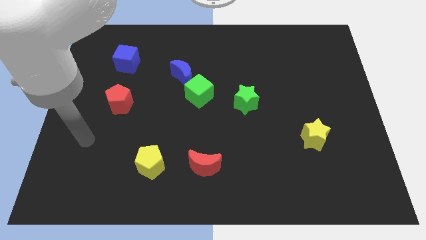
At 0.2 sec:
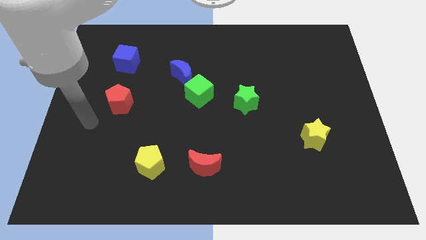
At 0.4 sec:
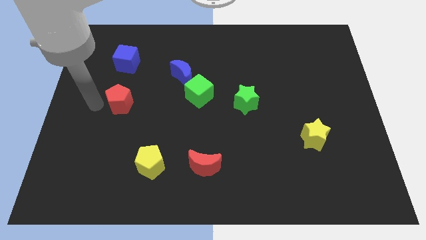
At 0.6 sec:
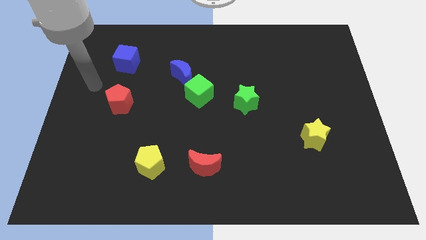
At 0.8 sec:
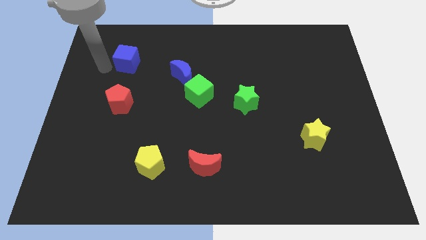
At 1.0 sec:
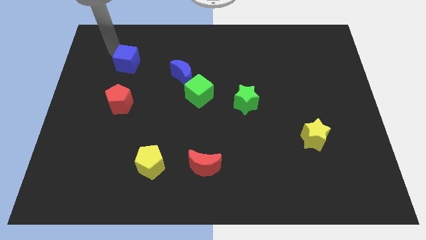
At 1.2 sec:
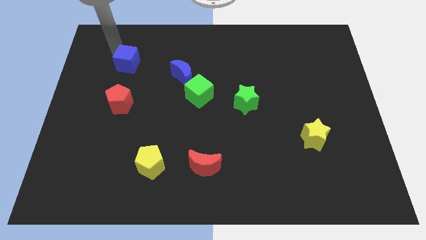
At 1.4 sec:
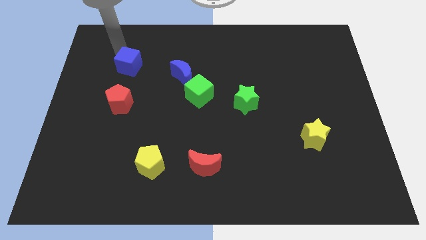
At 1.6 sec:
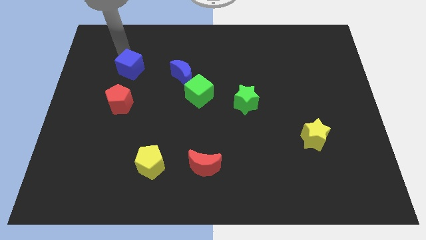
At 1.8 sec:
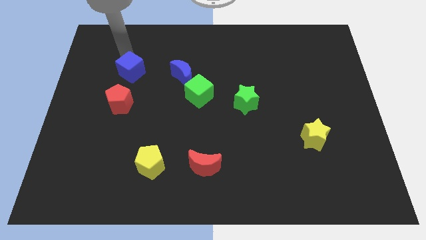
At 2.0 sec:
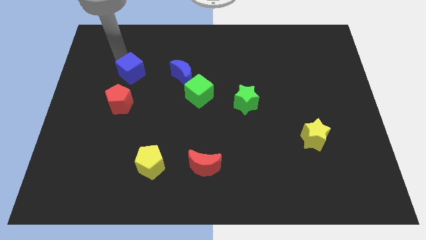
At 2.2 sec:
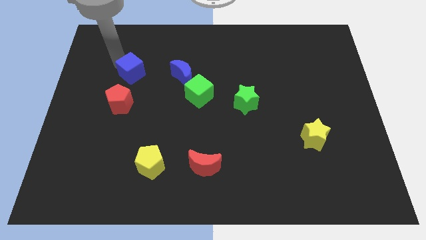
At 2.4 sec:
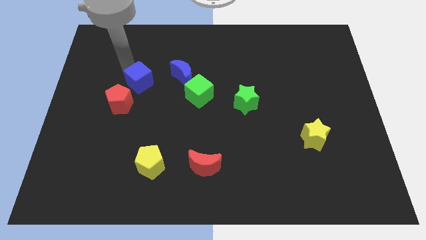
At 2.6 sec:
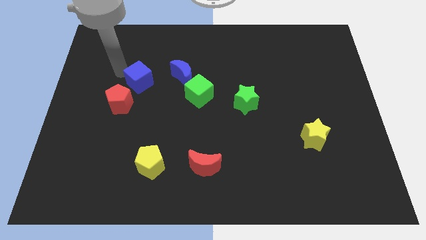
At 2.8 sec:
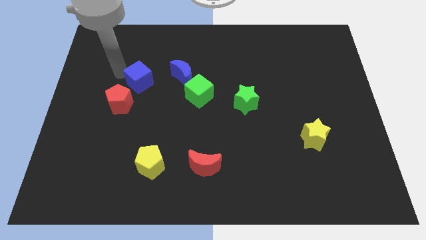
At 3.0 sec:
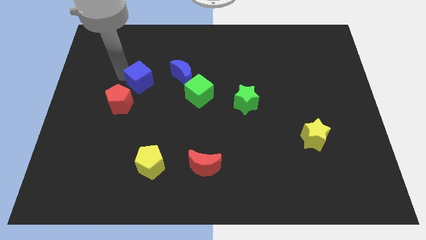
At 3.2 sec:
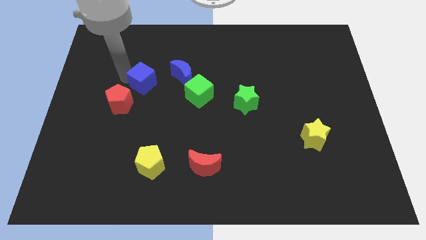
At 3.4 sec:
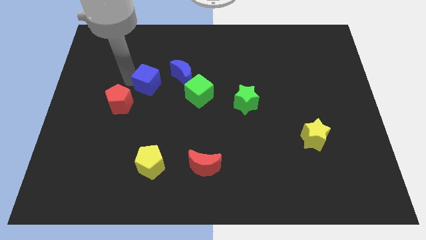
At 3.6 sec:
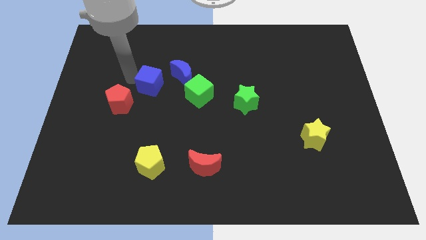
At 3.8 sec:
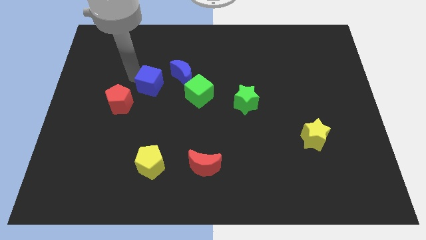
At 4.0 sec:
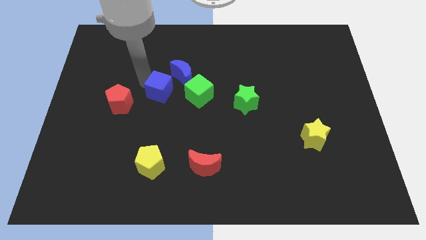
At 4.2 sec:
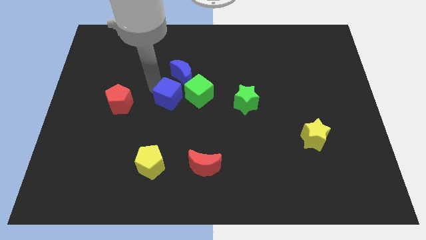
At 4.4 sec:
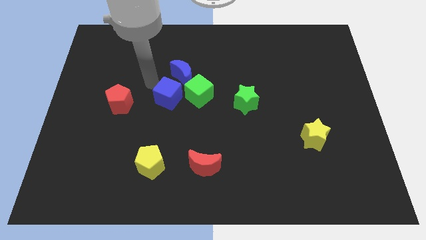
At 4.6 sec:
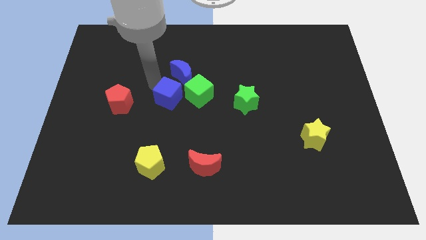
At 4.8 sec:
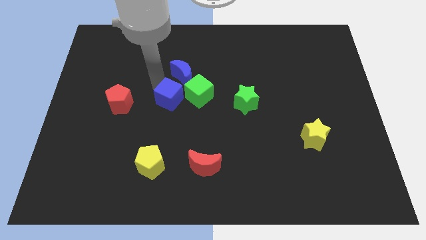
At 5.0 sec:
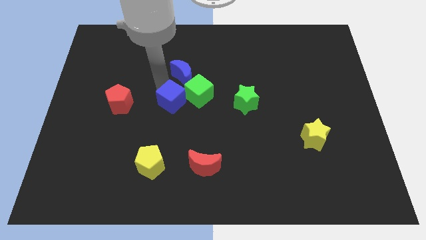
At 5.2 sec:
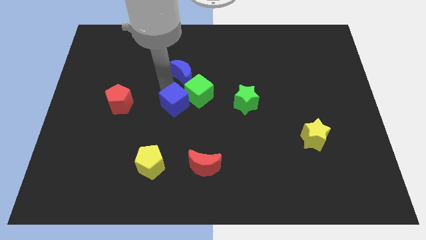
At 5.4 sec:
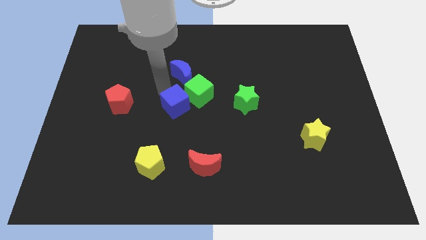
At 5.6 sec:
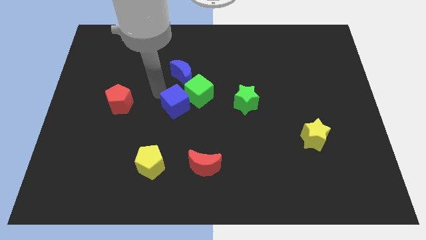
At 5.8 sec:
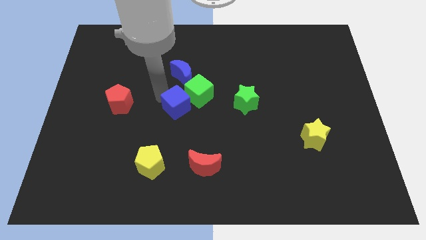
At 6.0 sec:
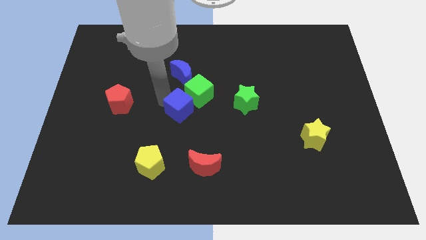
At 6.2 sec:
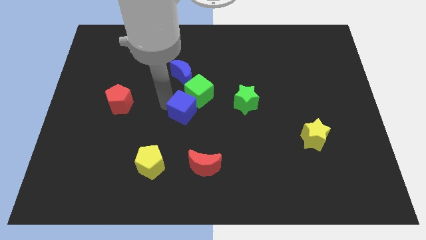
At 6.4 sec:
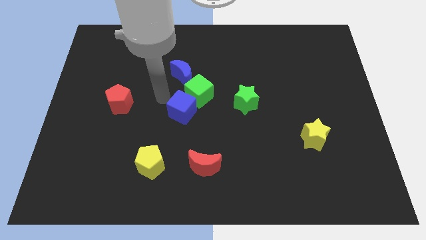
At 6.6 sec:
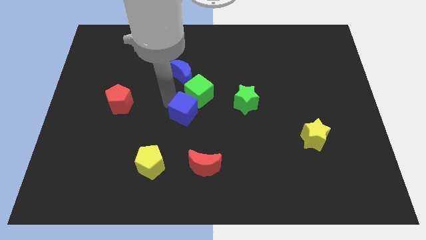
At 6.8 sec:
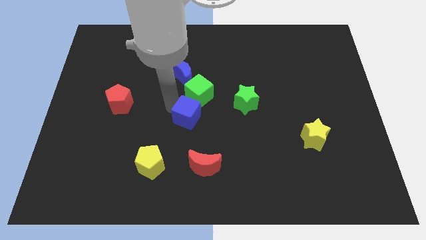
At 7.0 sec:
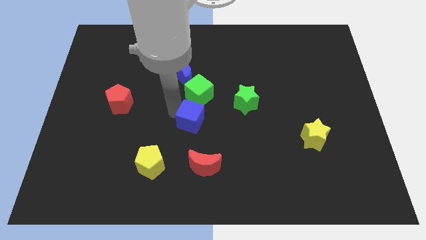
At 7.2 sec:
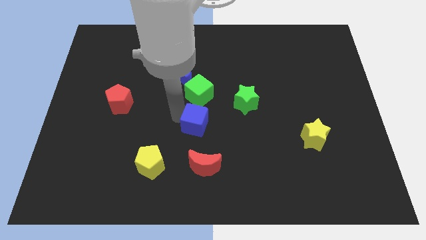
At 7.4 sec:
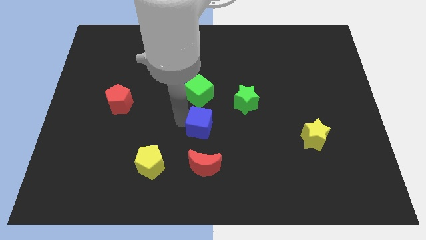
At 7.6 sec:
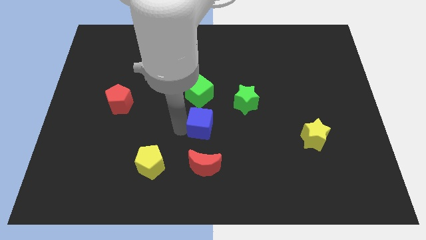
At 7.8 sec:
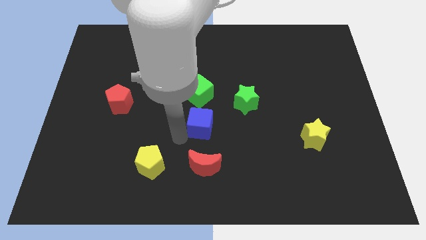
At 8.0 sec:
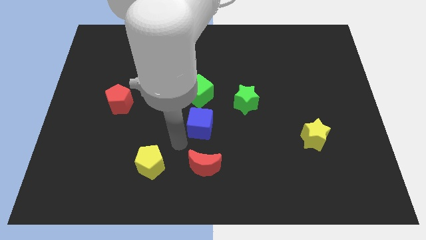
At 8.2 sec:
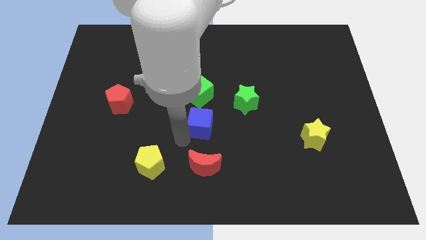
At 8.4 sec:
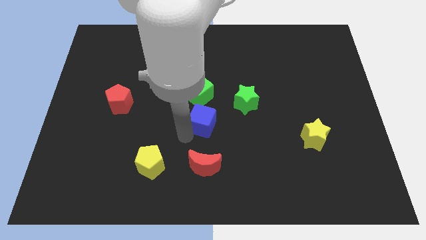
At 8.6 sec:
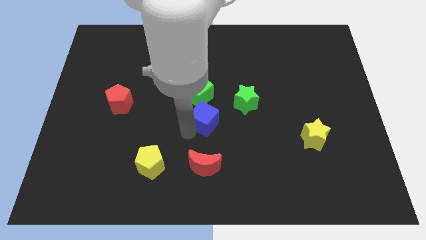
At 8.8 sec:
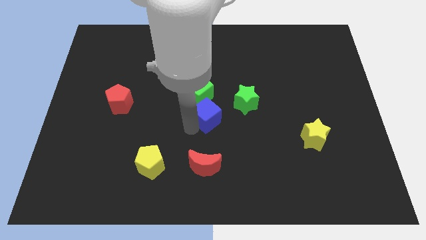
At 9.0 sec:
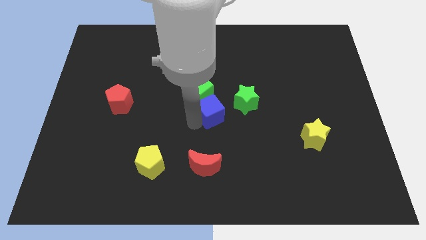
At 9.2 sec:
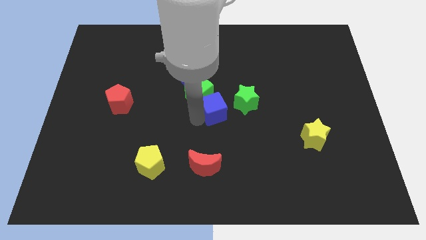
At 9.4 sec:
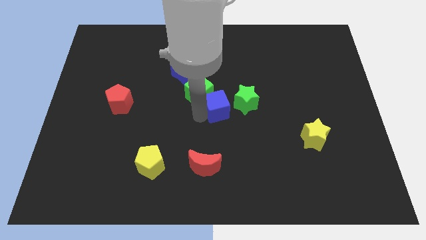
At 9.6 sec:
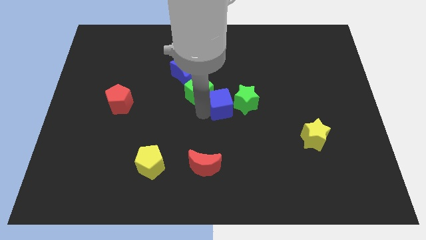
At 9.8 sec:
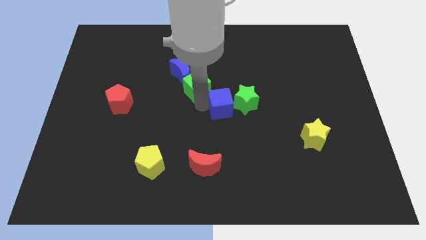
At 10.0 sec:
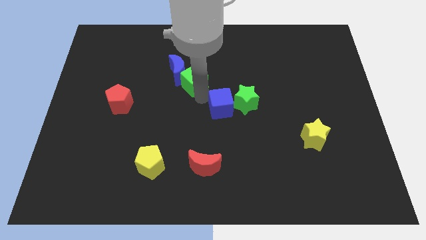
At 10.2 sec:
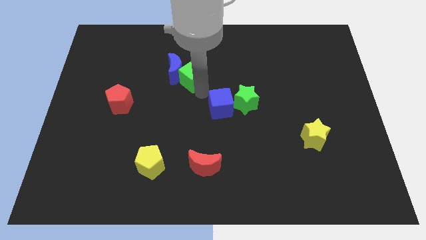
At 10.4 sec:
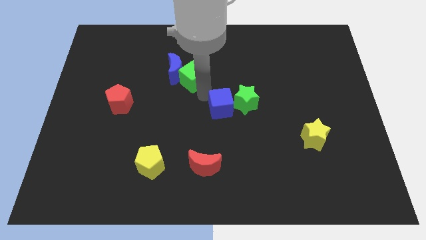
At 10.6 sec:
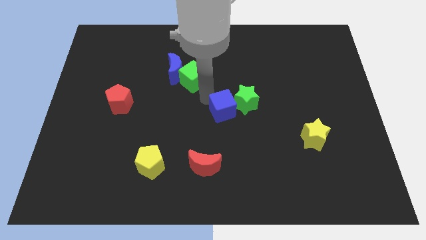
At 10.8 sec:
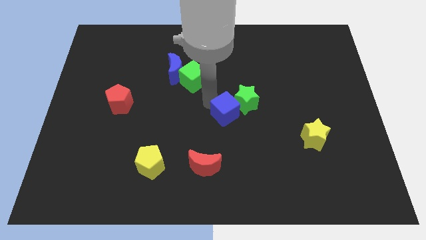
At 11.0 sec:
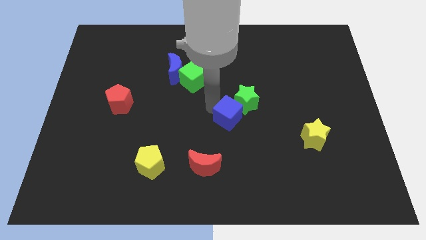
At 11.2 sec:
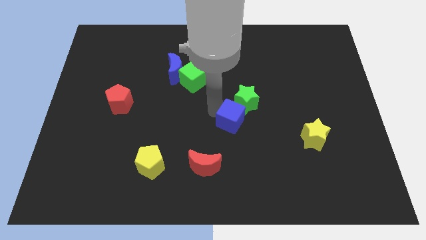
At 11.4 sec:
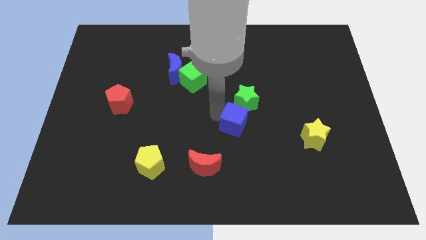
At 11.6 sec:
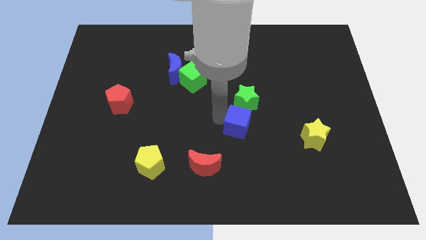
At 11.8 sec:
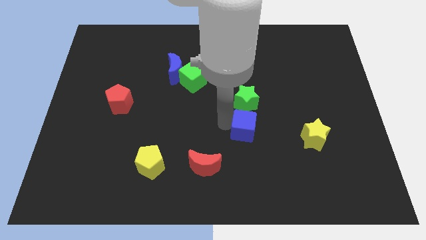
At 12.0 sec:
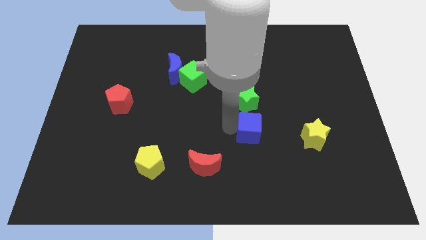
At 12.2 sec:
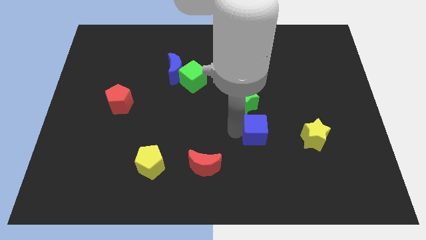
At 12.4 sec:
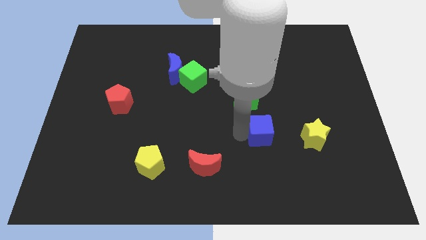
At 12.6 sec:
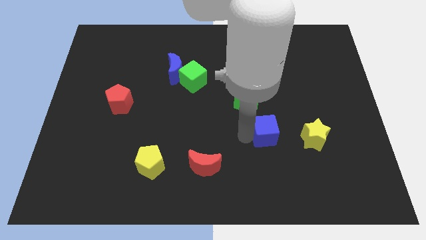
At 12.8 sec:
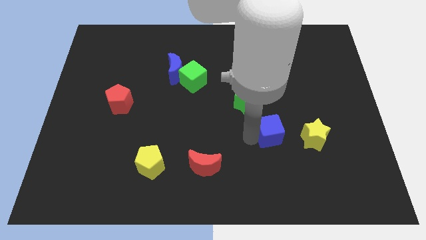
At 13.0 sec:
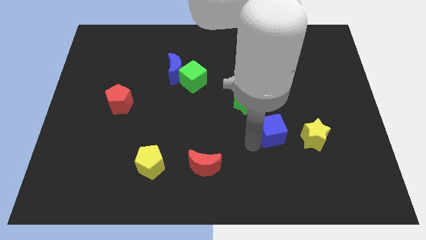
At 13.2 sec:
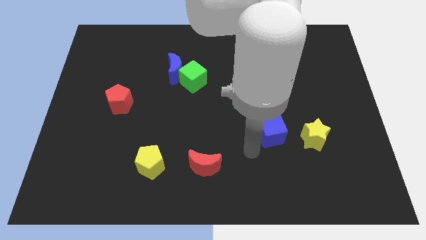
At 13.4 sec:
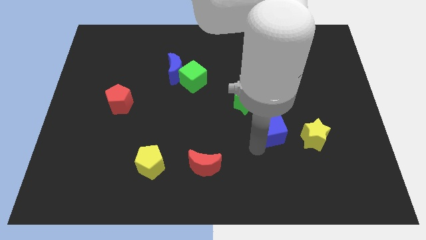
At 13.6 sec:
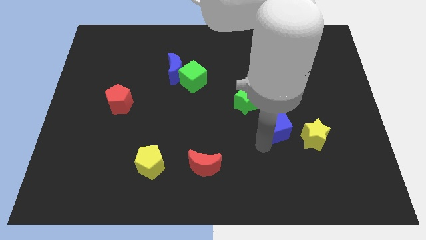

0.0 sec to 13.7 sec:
push the blue cube to the top left side of the yellow star

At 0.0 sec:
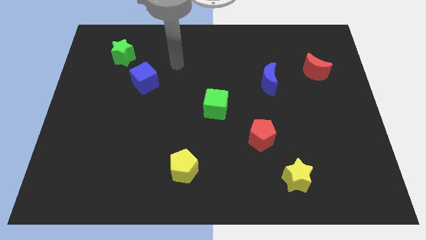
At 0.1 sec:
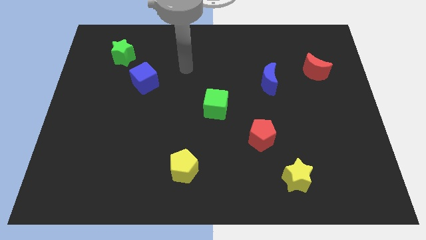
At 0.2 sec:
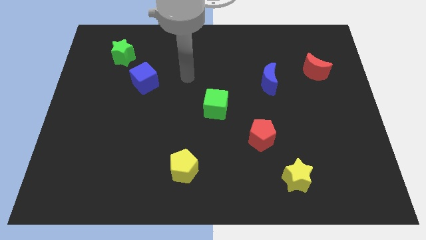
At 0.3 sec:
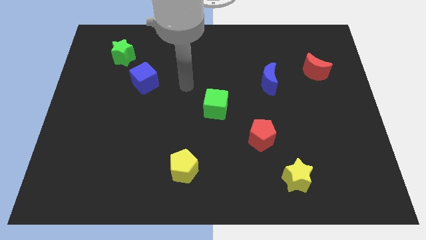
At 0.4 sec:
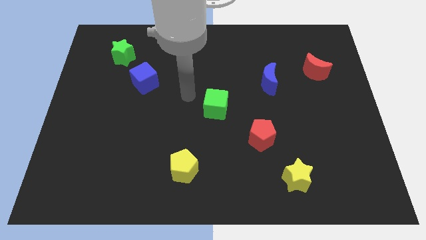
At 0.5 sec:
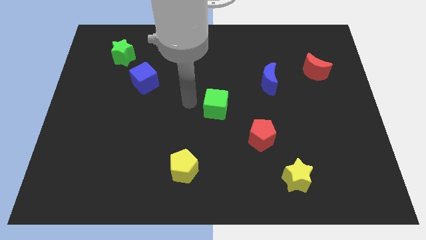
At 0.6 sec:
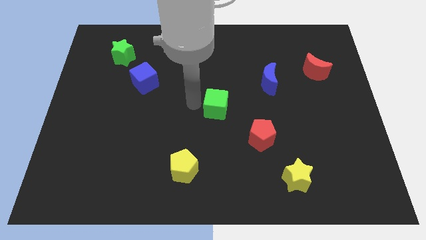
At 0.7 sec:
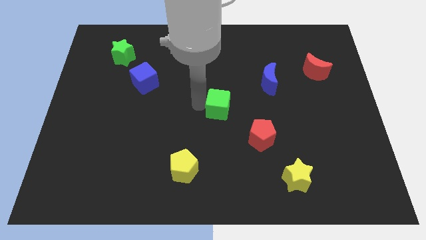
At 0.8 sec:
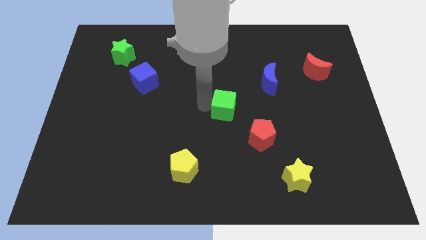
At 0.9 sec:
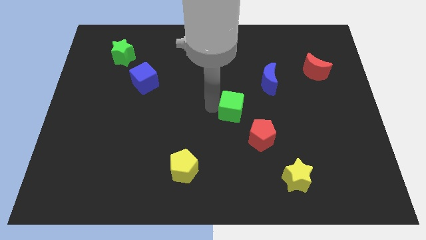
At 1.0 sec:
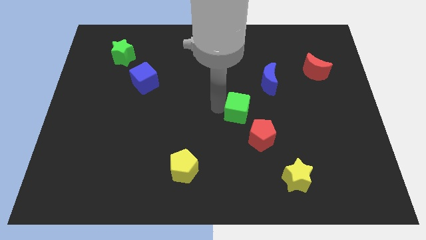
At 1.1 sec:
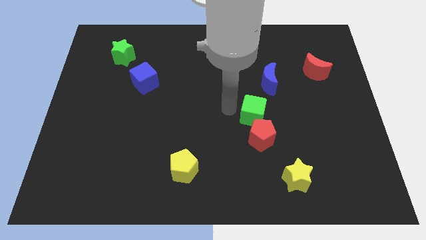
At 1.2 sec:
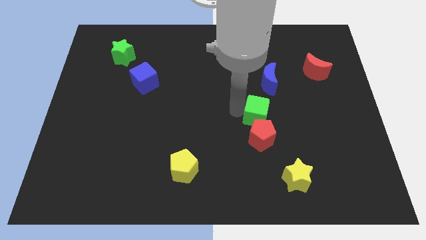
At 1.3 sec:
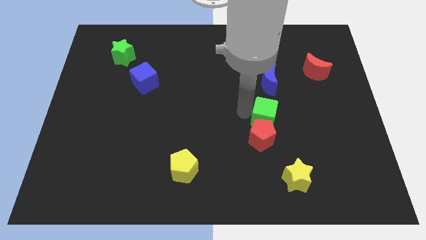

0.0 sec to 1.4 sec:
push the green cube to the top right side of the red pentagon
